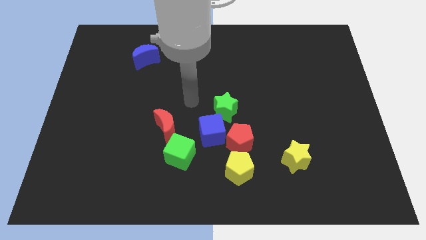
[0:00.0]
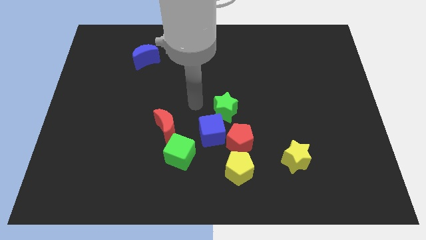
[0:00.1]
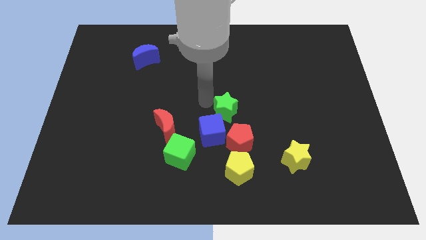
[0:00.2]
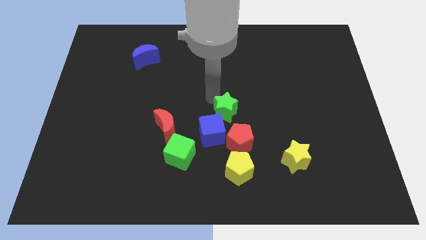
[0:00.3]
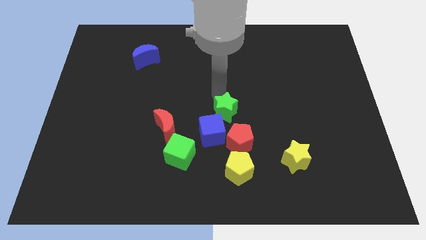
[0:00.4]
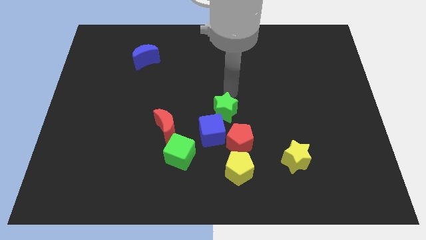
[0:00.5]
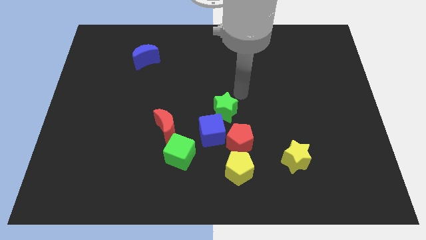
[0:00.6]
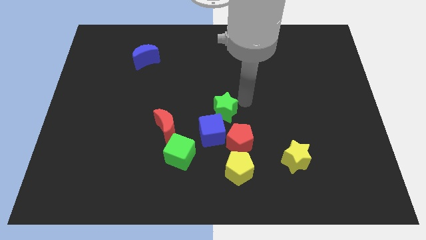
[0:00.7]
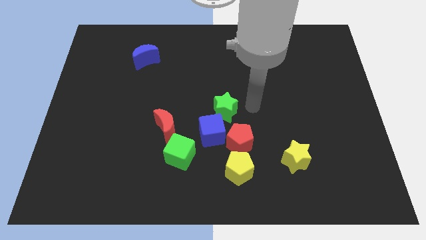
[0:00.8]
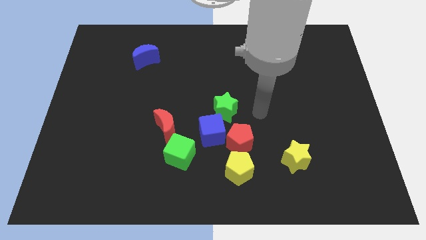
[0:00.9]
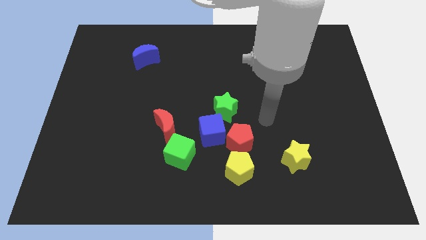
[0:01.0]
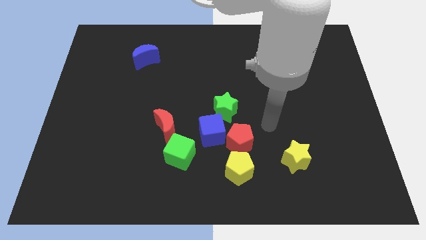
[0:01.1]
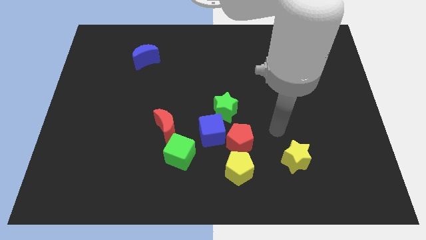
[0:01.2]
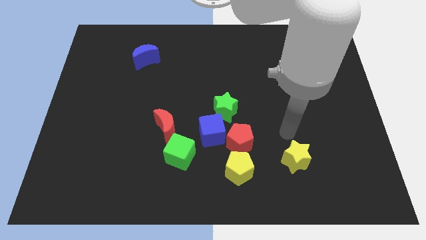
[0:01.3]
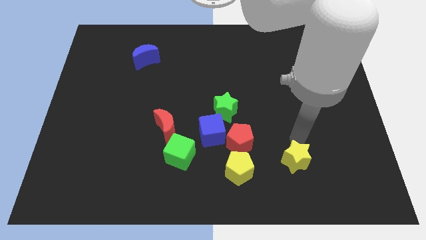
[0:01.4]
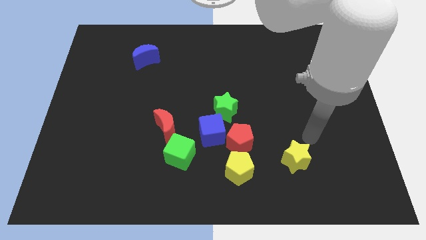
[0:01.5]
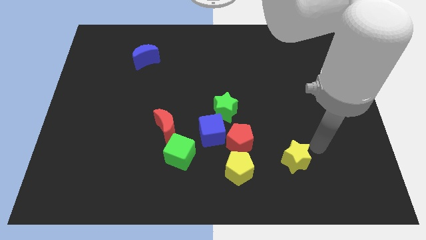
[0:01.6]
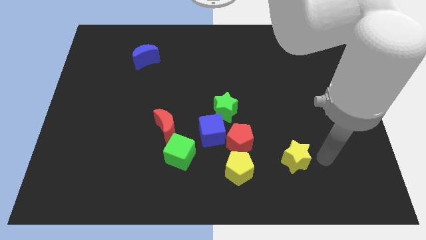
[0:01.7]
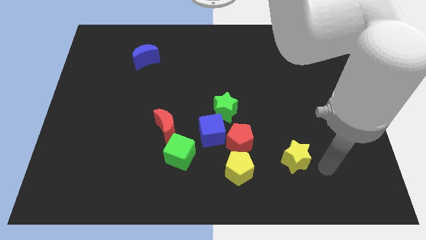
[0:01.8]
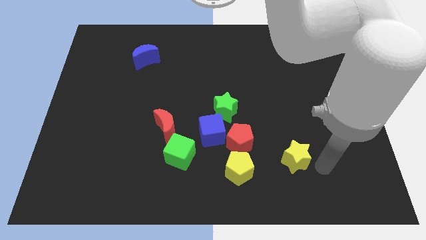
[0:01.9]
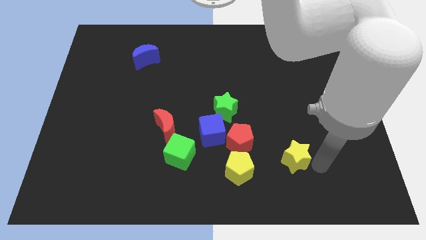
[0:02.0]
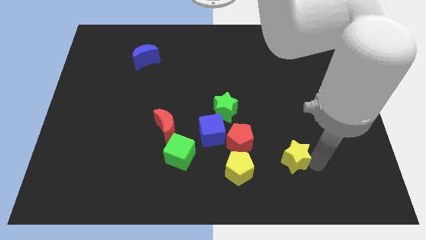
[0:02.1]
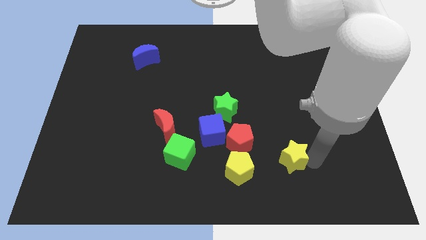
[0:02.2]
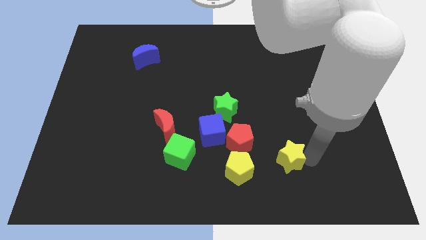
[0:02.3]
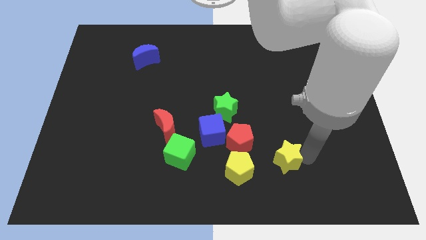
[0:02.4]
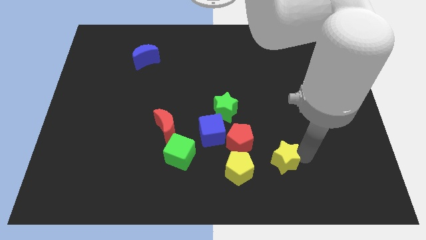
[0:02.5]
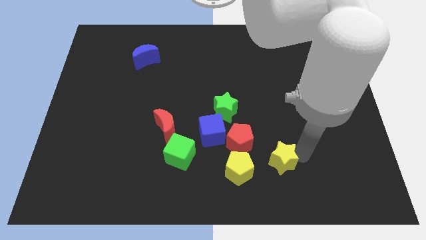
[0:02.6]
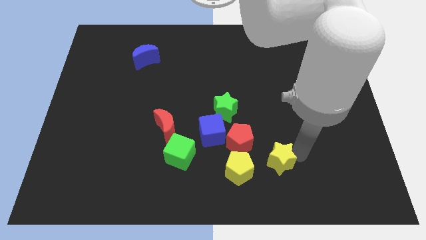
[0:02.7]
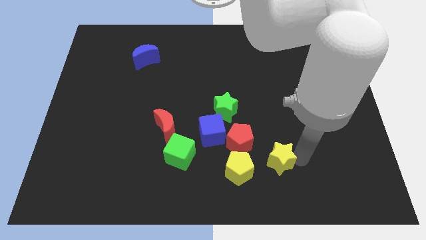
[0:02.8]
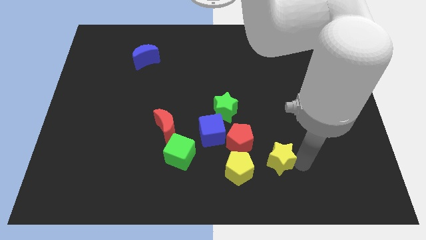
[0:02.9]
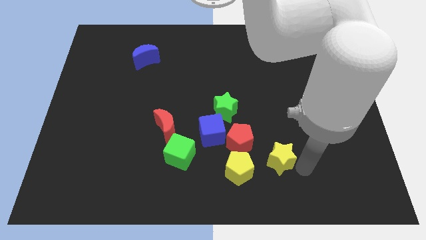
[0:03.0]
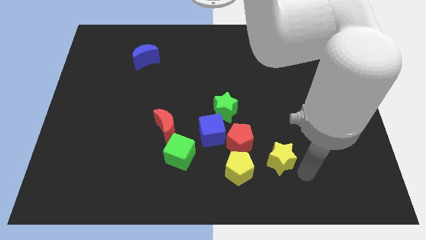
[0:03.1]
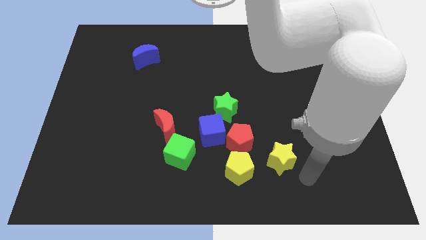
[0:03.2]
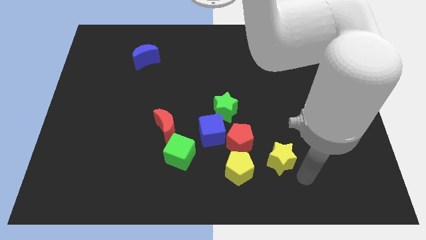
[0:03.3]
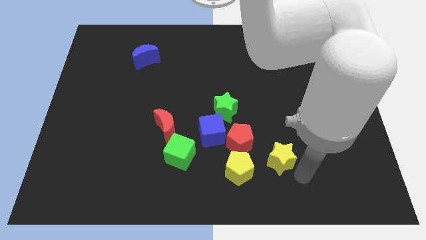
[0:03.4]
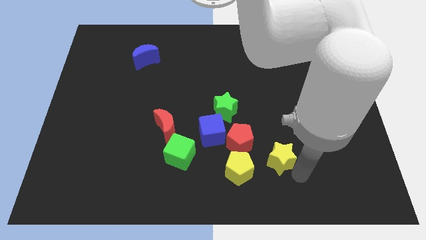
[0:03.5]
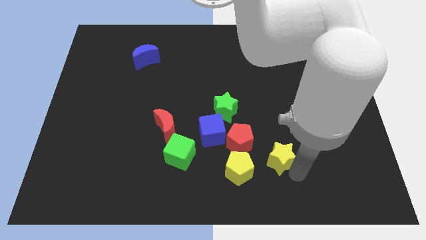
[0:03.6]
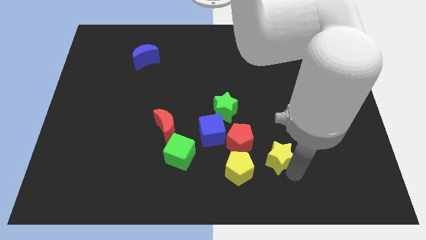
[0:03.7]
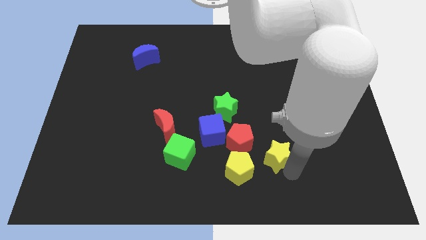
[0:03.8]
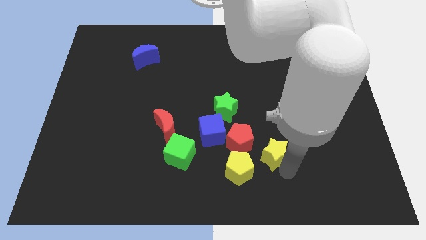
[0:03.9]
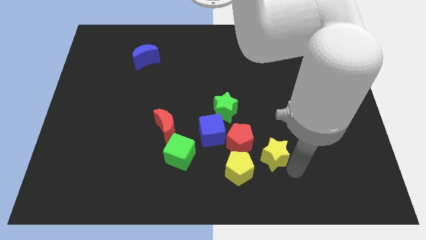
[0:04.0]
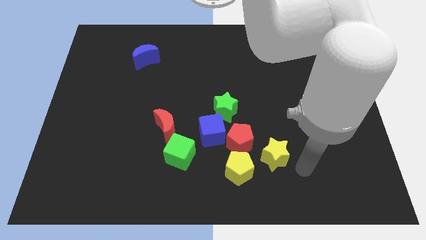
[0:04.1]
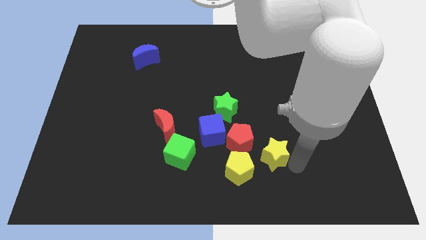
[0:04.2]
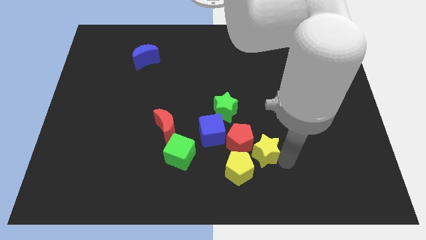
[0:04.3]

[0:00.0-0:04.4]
slide the yellow star to the red pentagon

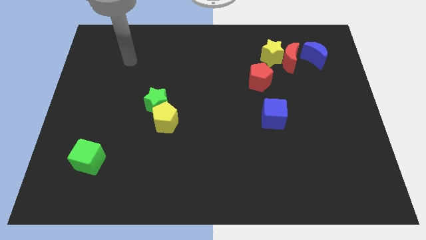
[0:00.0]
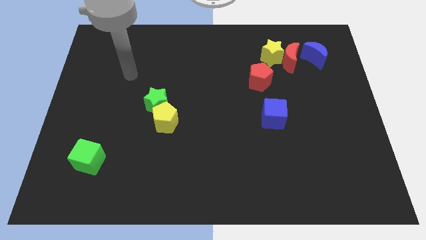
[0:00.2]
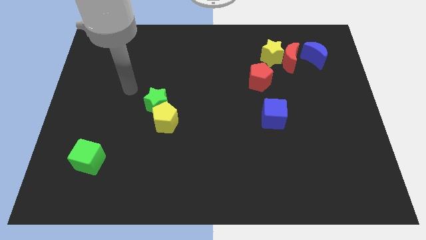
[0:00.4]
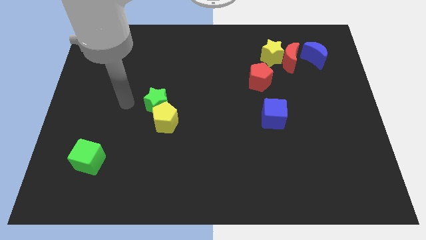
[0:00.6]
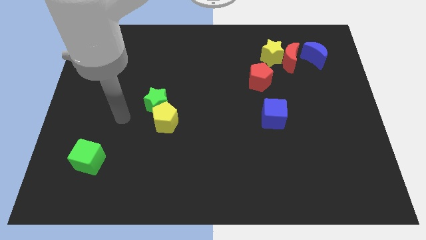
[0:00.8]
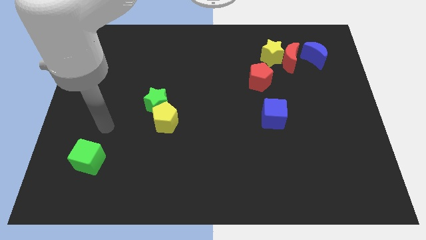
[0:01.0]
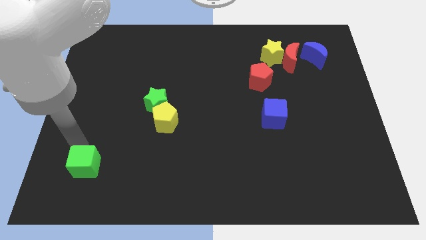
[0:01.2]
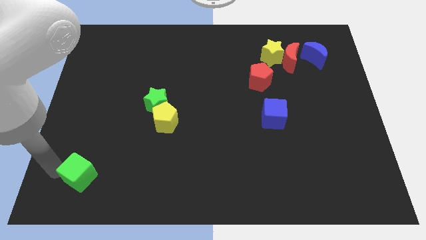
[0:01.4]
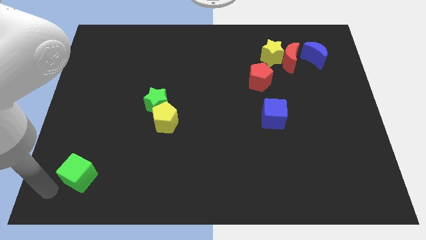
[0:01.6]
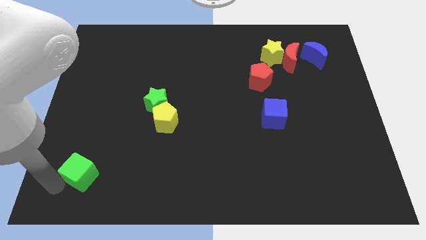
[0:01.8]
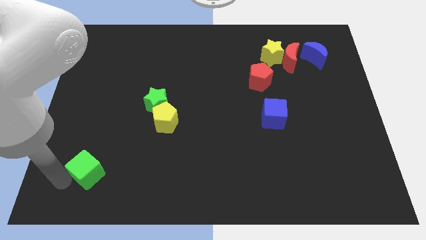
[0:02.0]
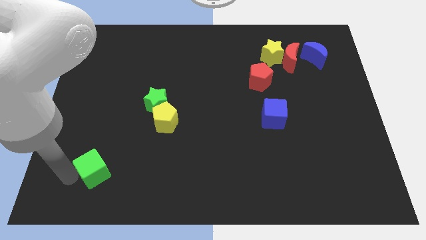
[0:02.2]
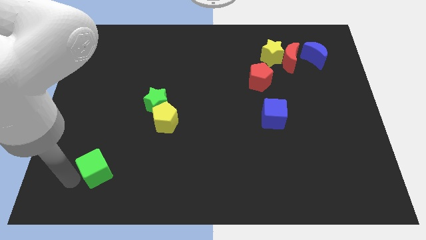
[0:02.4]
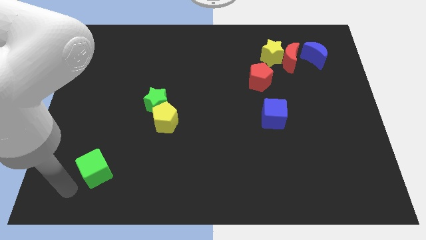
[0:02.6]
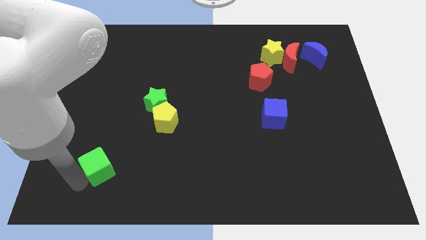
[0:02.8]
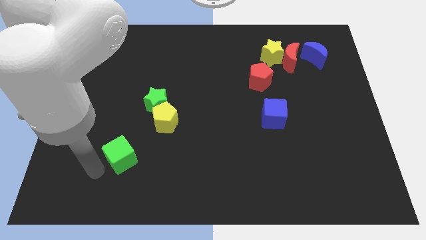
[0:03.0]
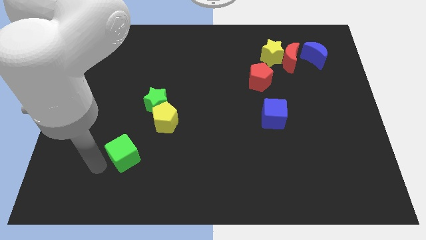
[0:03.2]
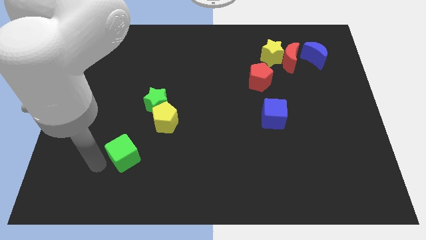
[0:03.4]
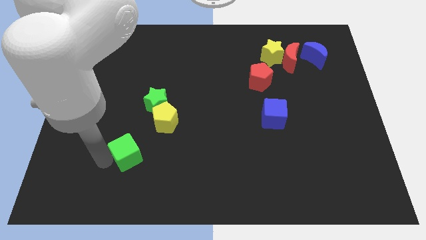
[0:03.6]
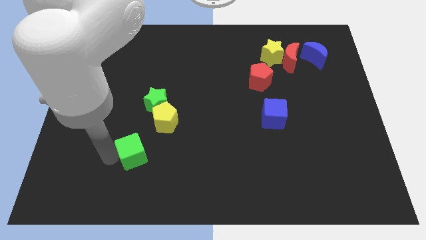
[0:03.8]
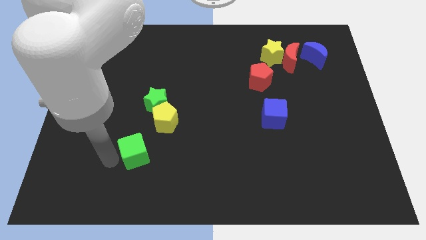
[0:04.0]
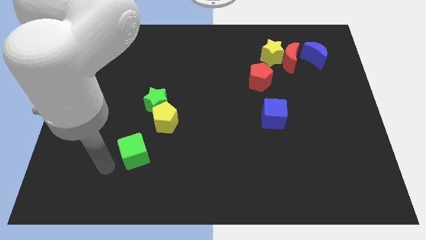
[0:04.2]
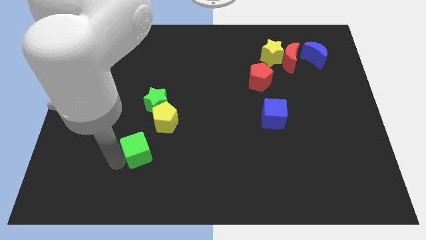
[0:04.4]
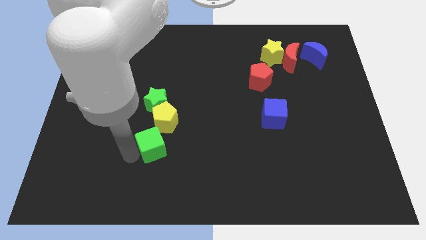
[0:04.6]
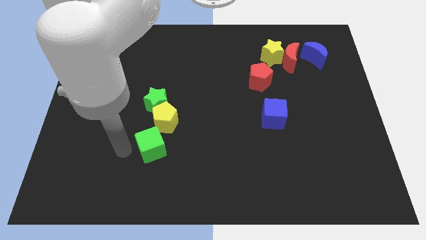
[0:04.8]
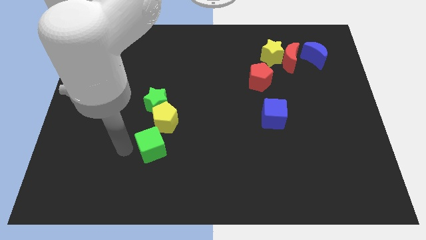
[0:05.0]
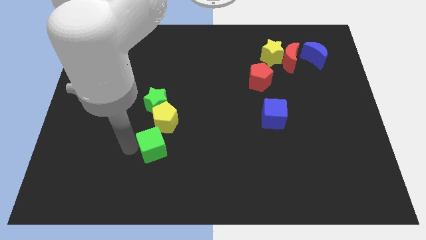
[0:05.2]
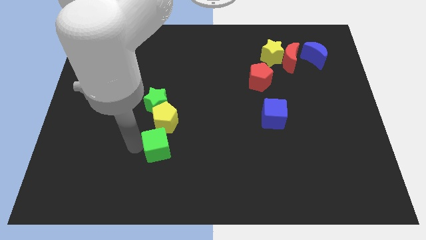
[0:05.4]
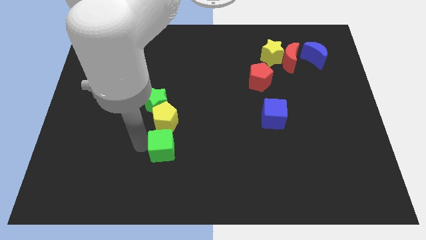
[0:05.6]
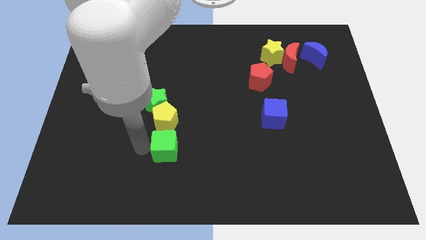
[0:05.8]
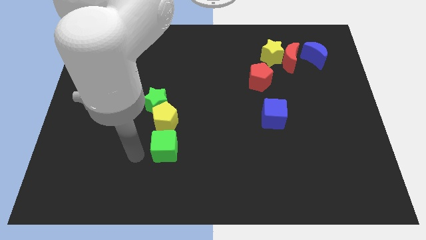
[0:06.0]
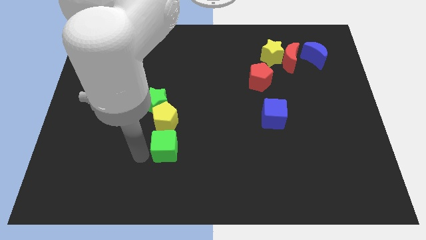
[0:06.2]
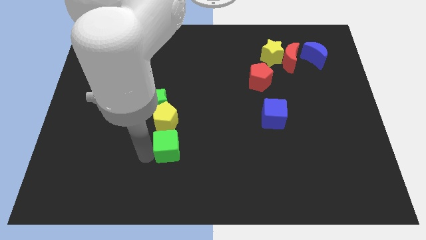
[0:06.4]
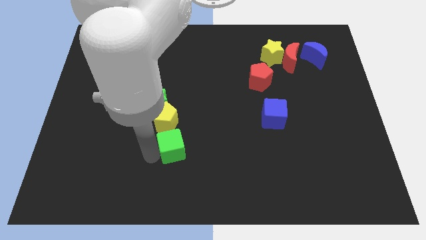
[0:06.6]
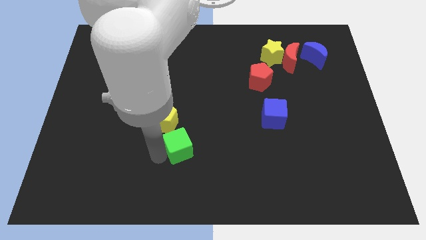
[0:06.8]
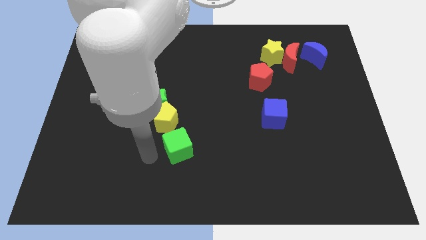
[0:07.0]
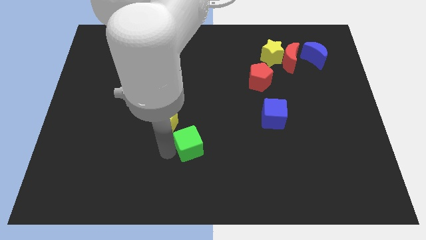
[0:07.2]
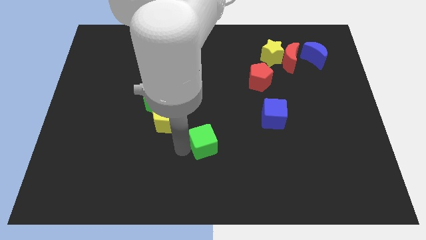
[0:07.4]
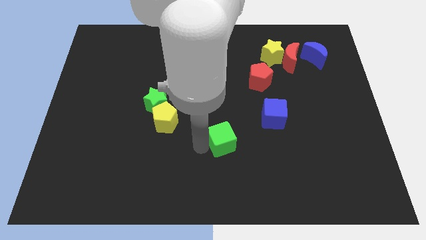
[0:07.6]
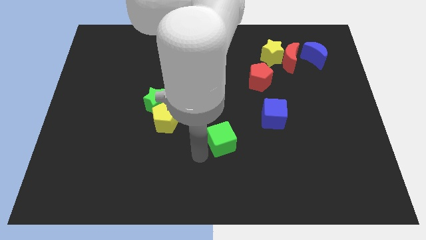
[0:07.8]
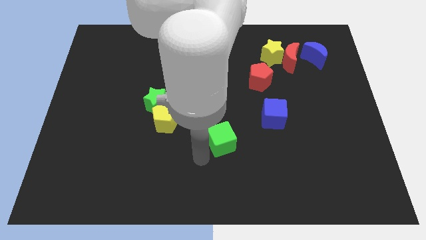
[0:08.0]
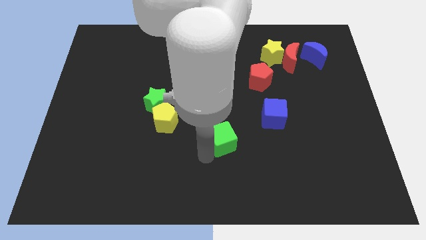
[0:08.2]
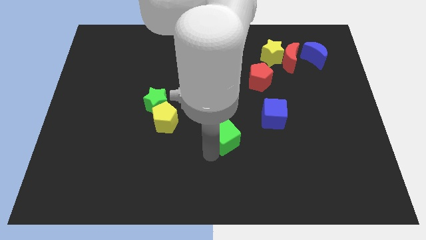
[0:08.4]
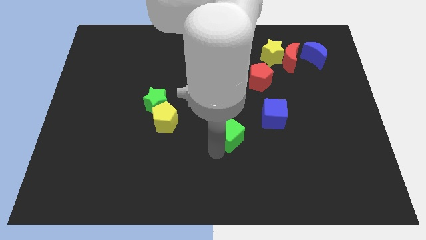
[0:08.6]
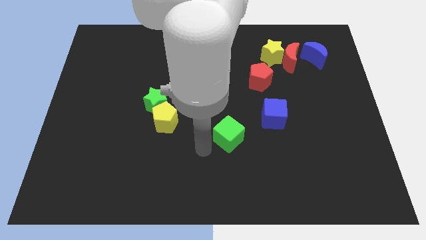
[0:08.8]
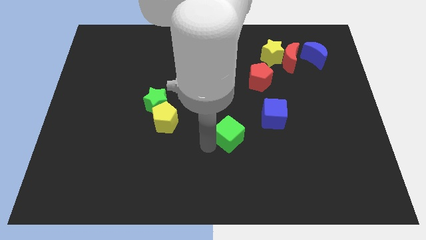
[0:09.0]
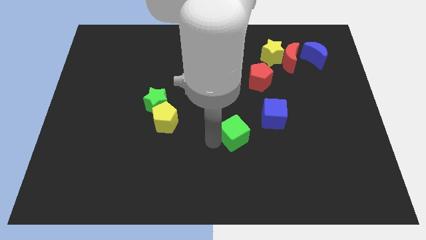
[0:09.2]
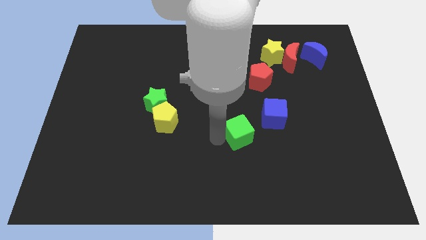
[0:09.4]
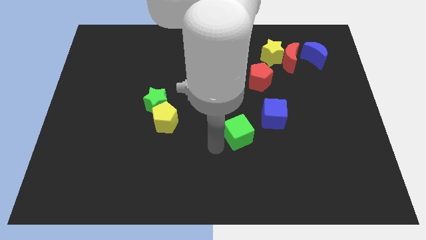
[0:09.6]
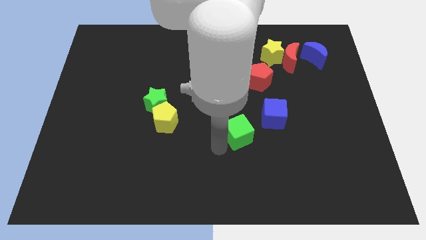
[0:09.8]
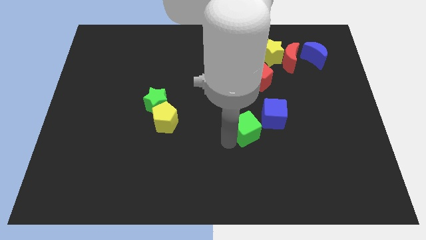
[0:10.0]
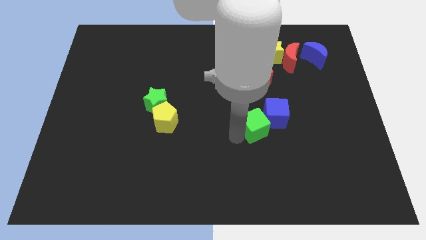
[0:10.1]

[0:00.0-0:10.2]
push the green cube towards the blue cube
